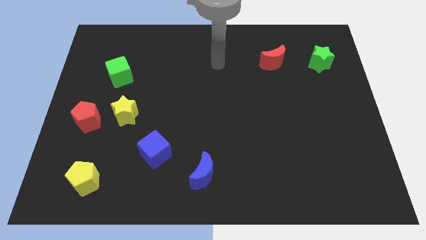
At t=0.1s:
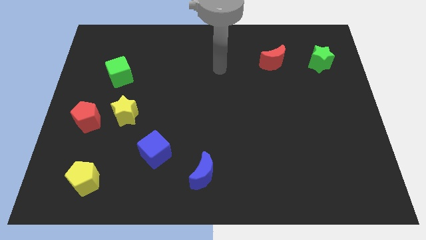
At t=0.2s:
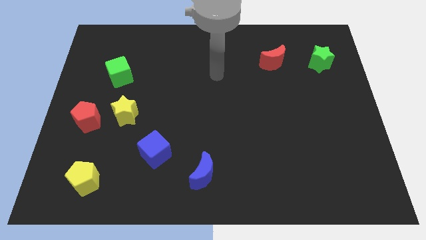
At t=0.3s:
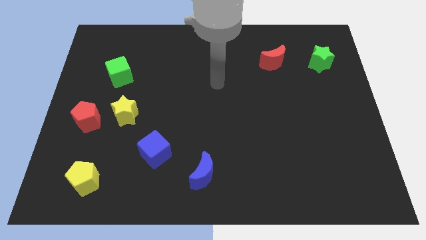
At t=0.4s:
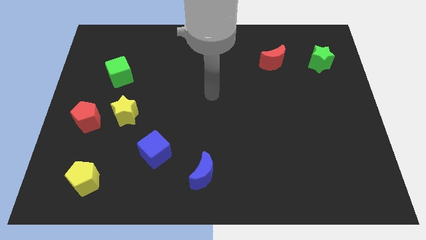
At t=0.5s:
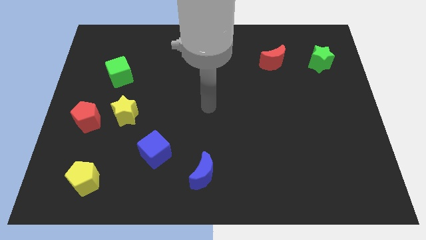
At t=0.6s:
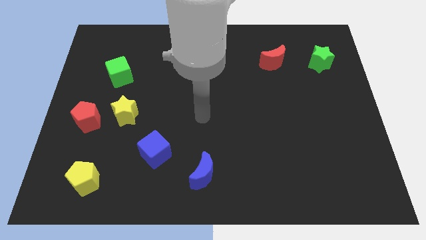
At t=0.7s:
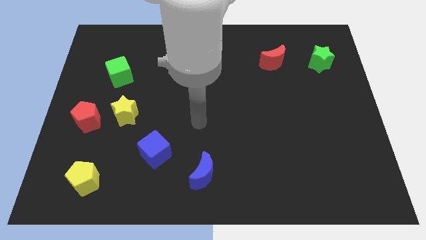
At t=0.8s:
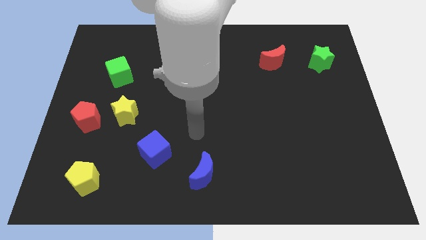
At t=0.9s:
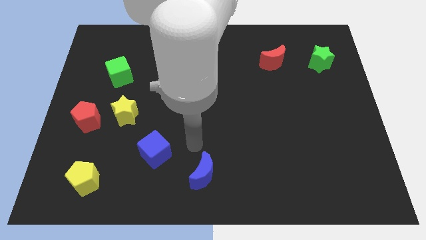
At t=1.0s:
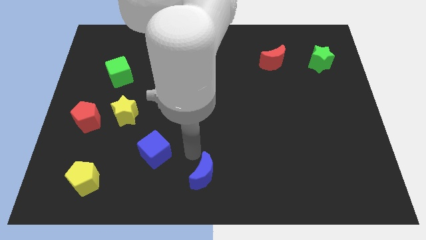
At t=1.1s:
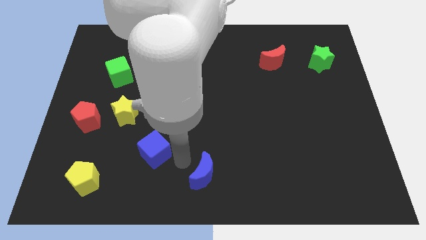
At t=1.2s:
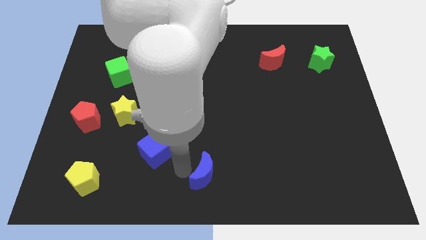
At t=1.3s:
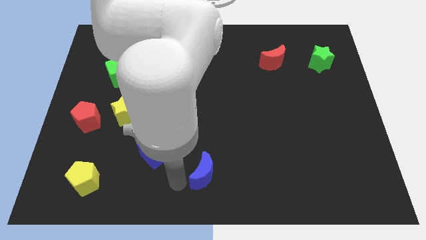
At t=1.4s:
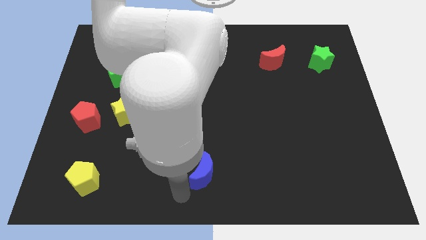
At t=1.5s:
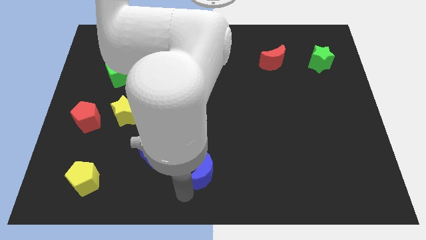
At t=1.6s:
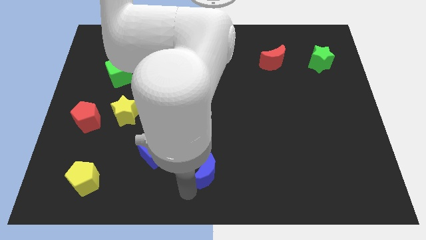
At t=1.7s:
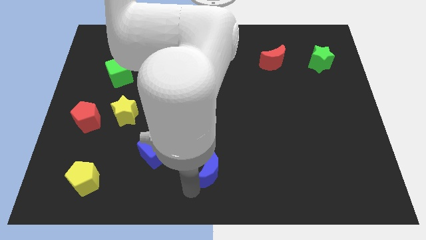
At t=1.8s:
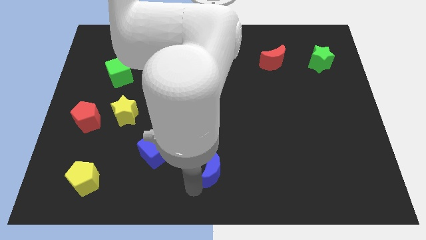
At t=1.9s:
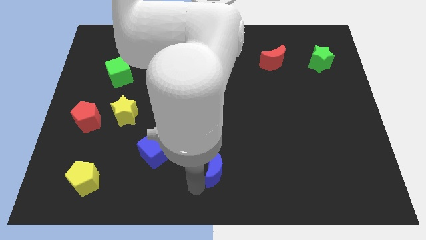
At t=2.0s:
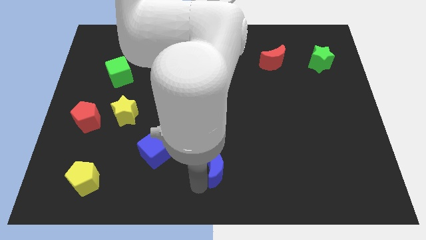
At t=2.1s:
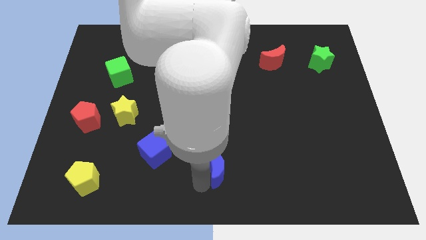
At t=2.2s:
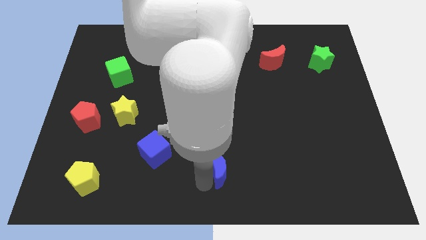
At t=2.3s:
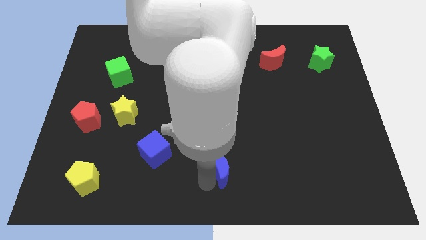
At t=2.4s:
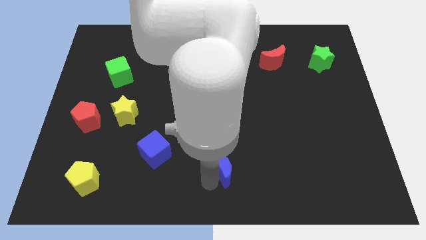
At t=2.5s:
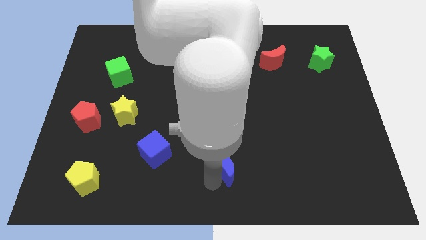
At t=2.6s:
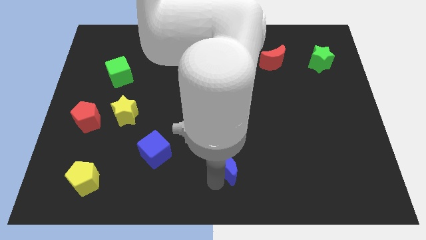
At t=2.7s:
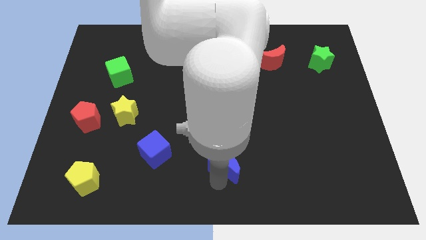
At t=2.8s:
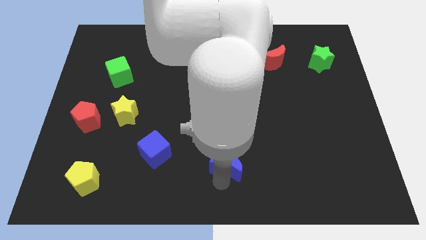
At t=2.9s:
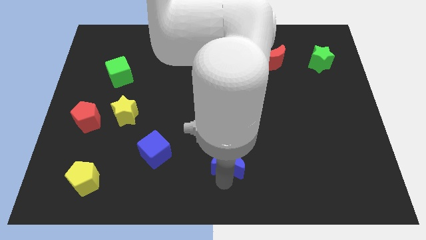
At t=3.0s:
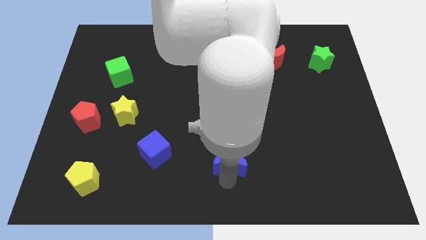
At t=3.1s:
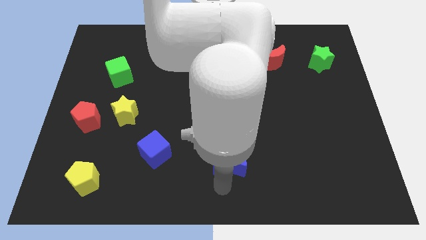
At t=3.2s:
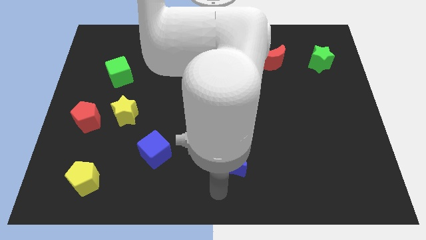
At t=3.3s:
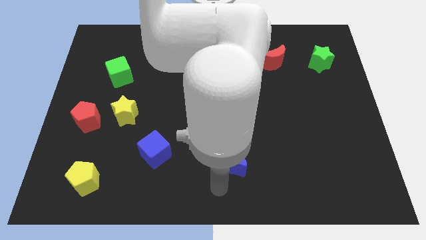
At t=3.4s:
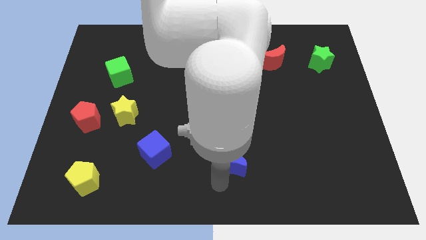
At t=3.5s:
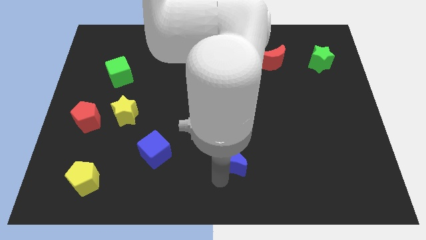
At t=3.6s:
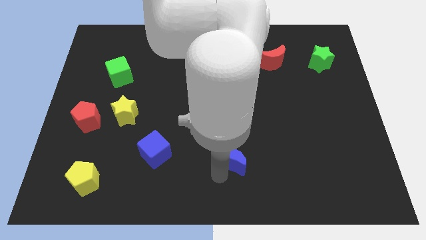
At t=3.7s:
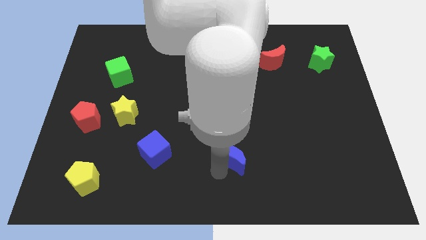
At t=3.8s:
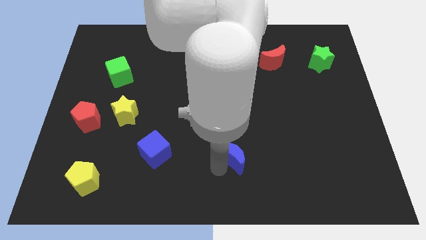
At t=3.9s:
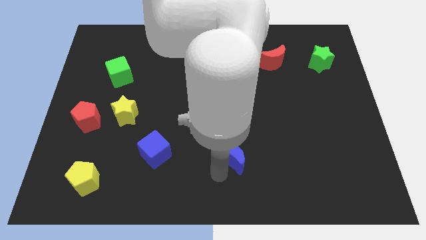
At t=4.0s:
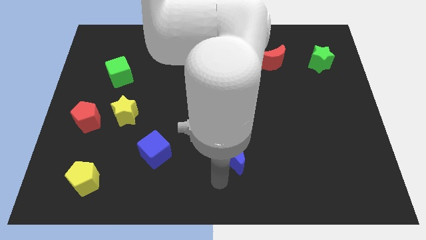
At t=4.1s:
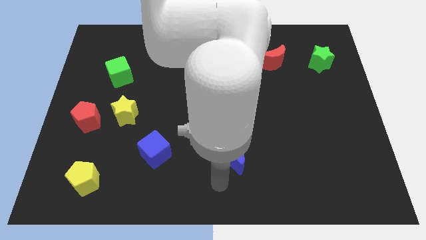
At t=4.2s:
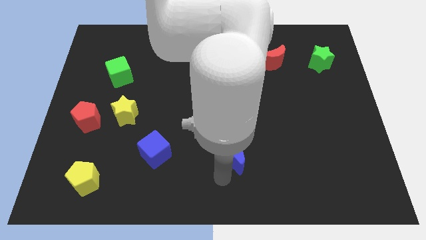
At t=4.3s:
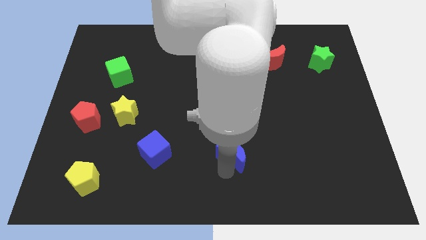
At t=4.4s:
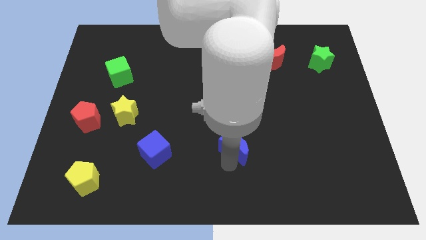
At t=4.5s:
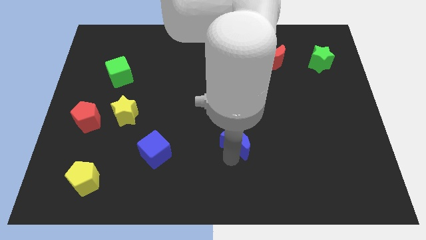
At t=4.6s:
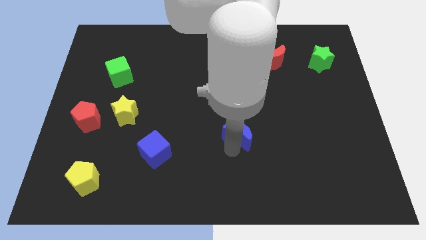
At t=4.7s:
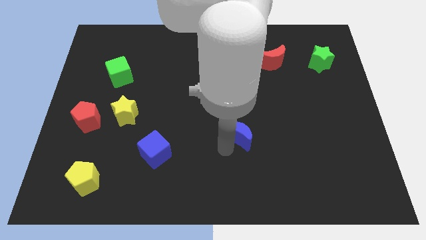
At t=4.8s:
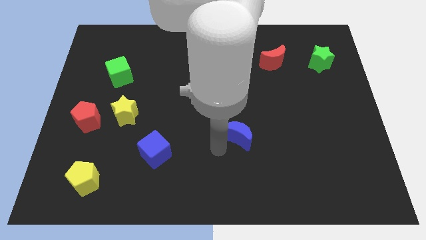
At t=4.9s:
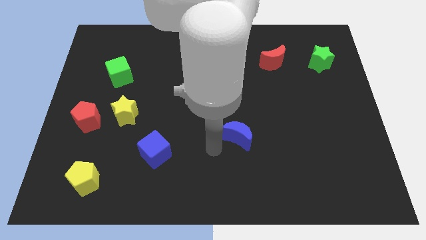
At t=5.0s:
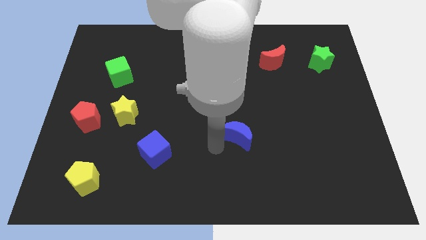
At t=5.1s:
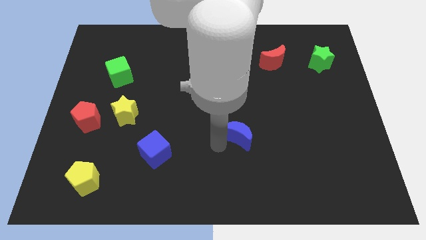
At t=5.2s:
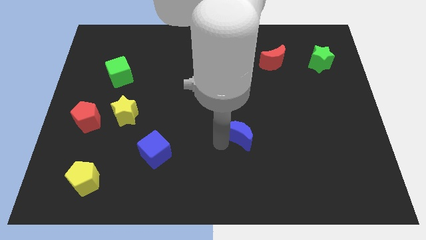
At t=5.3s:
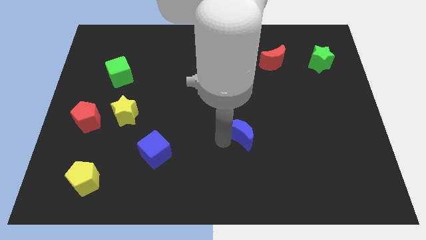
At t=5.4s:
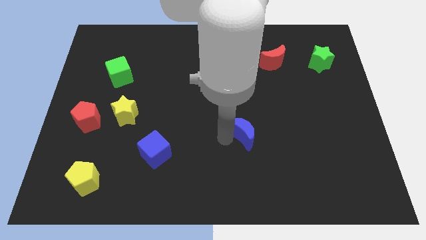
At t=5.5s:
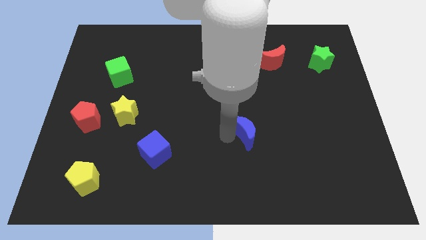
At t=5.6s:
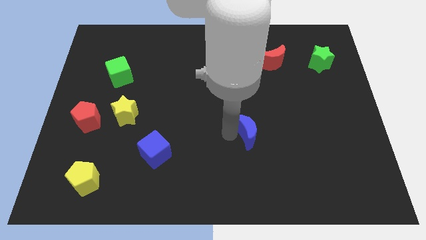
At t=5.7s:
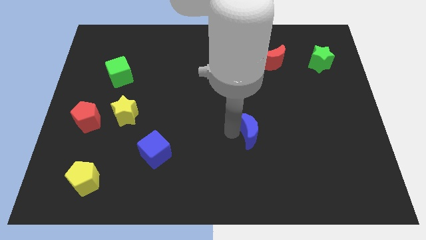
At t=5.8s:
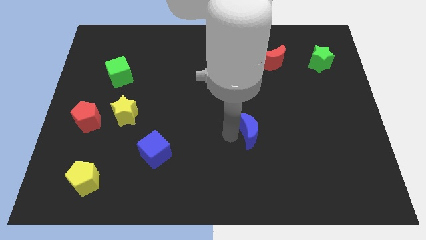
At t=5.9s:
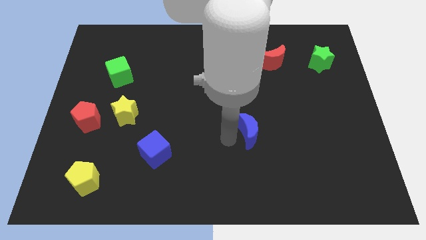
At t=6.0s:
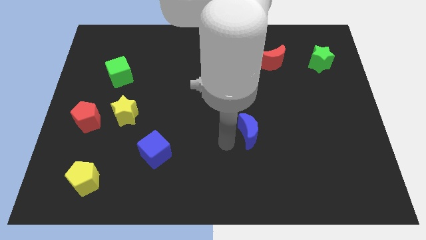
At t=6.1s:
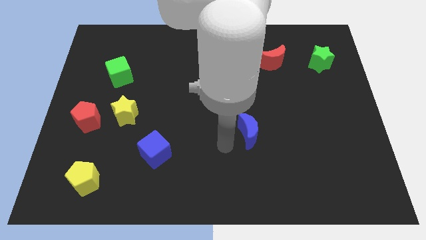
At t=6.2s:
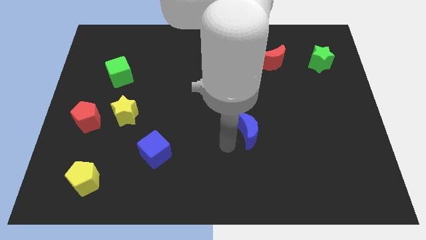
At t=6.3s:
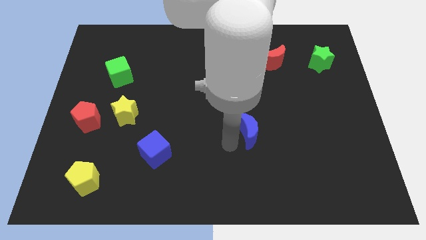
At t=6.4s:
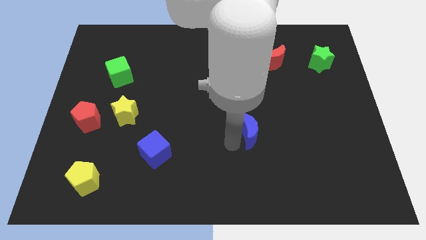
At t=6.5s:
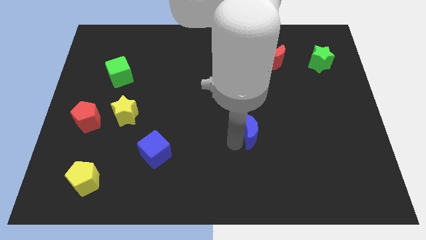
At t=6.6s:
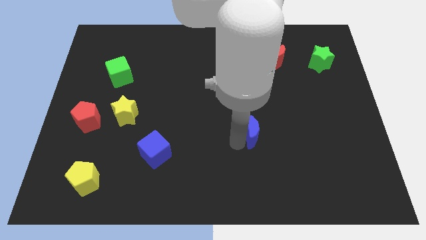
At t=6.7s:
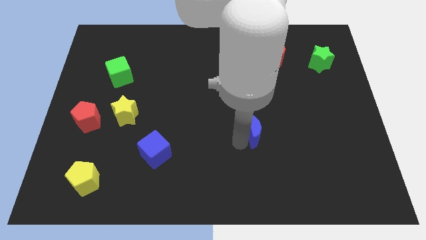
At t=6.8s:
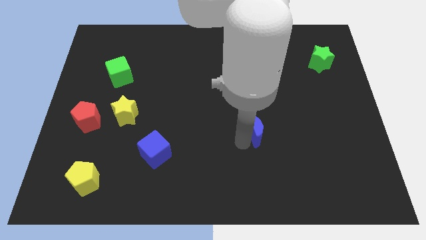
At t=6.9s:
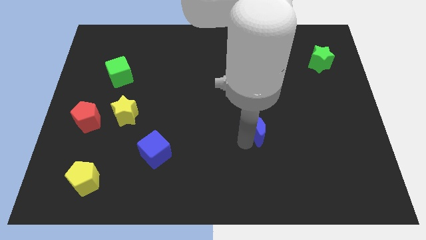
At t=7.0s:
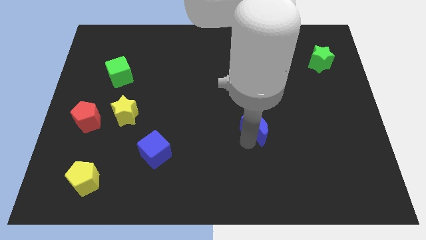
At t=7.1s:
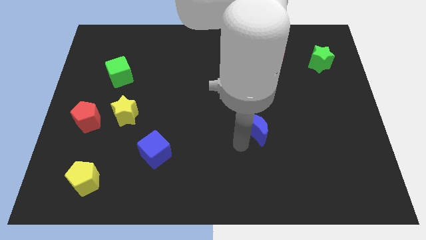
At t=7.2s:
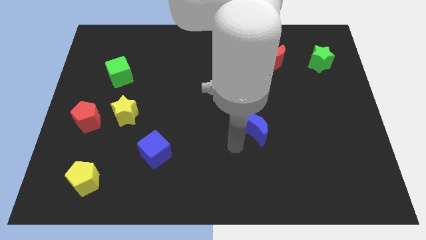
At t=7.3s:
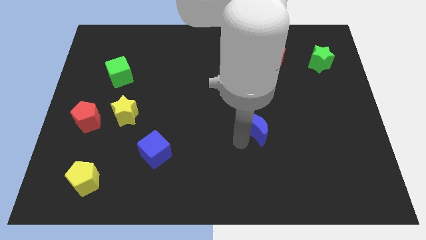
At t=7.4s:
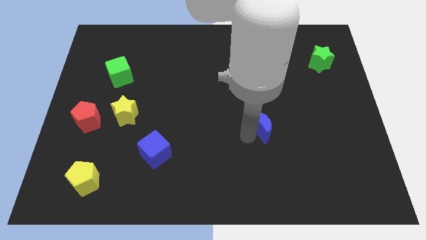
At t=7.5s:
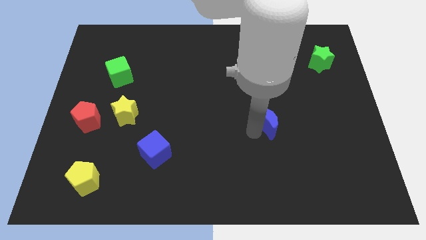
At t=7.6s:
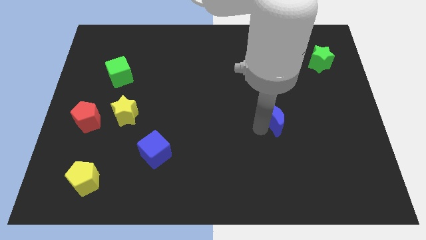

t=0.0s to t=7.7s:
slide the blue moon up and then to the right

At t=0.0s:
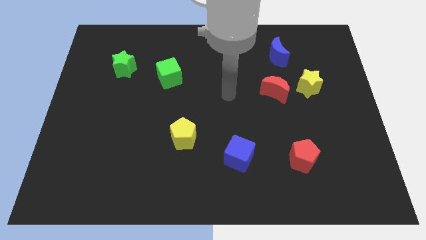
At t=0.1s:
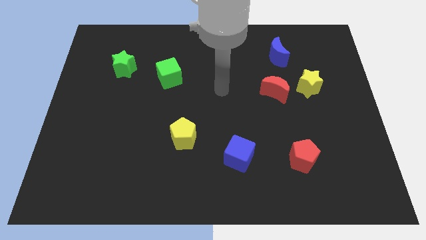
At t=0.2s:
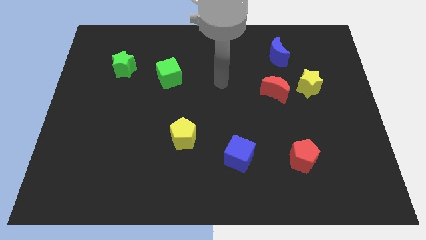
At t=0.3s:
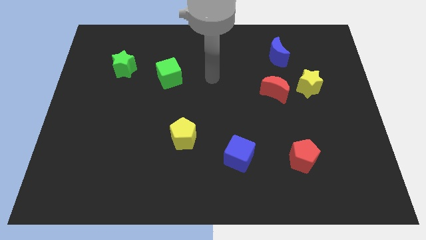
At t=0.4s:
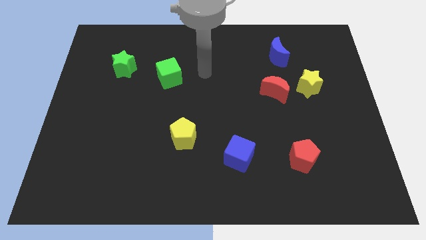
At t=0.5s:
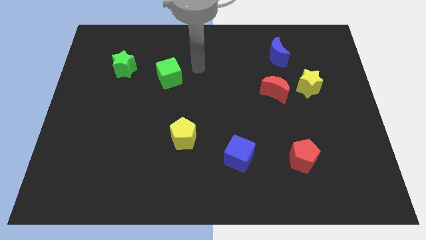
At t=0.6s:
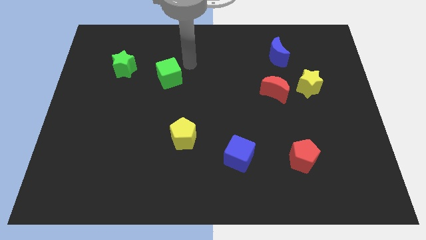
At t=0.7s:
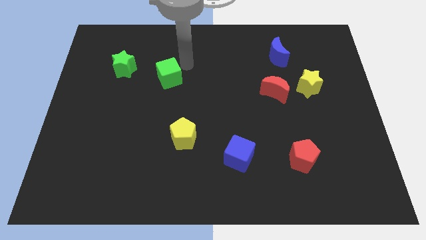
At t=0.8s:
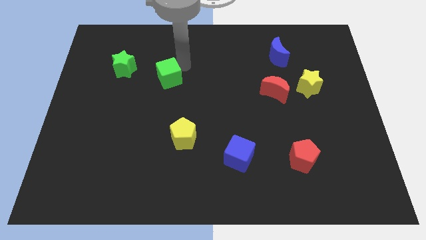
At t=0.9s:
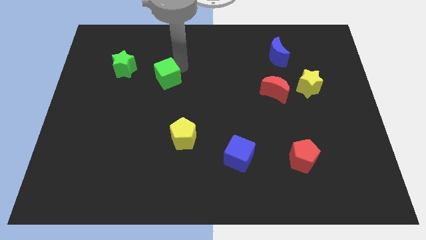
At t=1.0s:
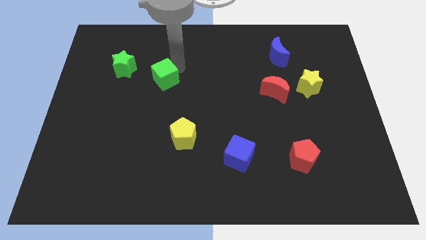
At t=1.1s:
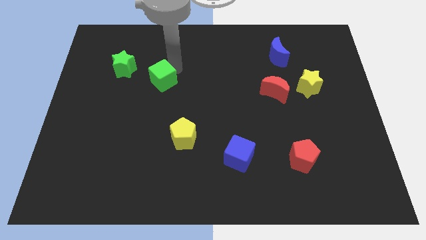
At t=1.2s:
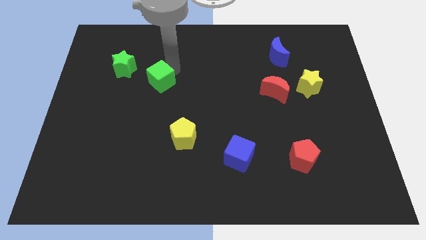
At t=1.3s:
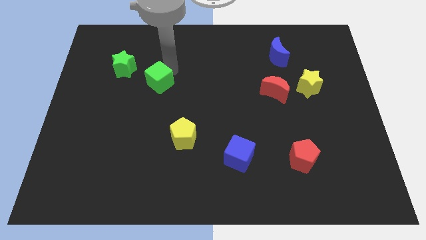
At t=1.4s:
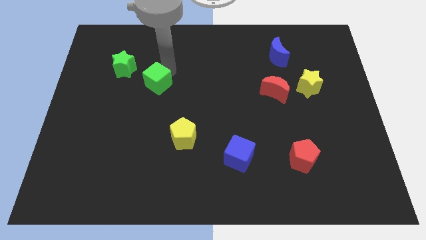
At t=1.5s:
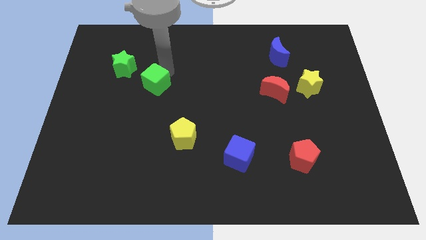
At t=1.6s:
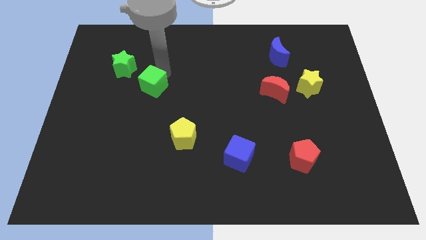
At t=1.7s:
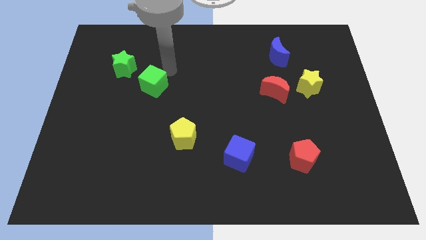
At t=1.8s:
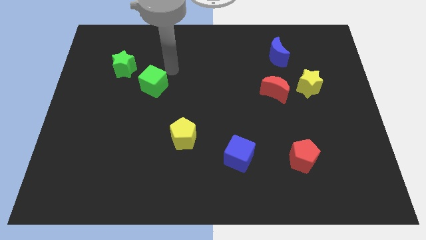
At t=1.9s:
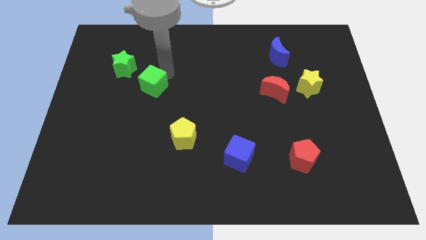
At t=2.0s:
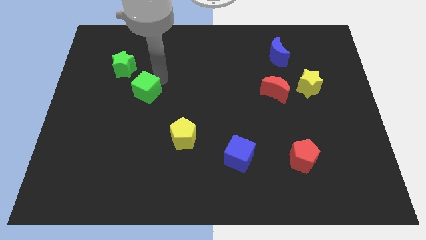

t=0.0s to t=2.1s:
slide the green cube down and to the left a little
